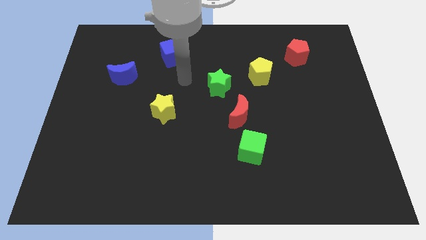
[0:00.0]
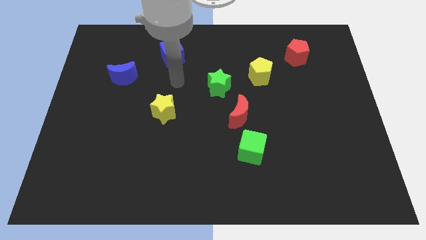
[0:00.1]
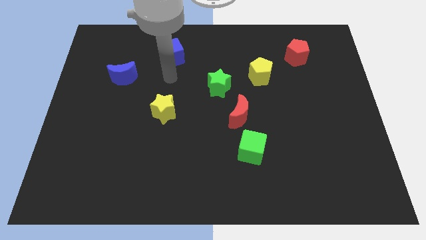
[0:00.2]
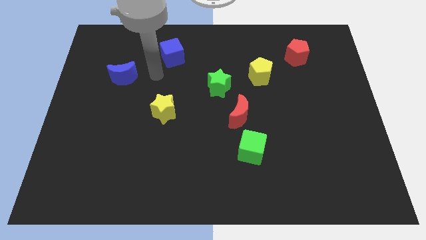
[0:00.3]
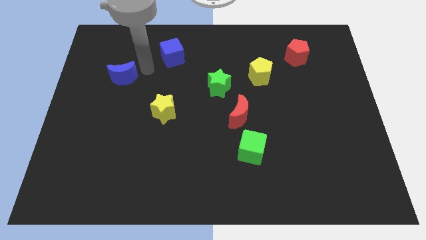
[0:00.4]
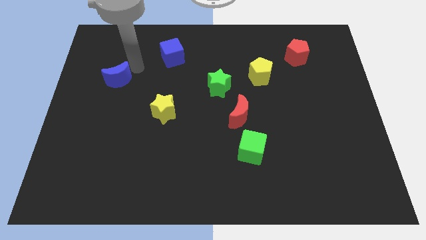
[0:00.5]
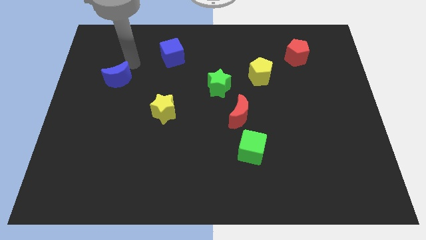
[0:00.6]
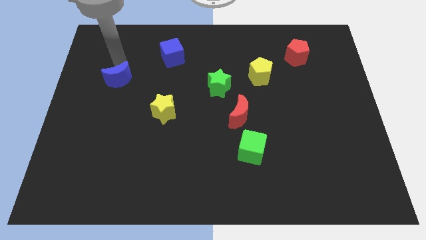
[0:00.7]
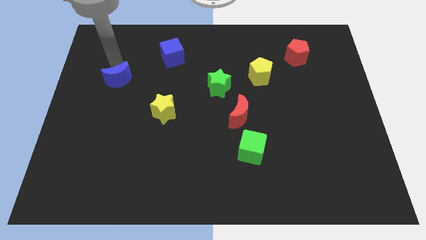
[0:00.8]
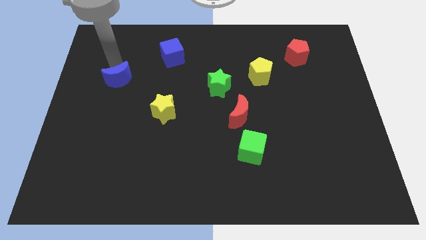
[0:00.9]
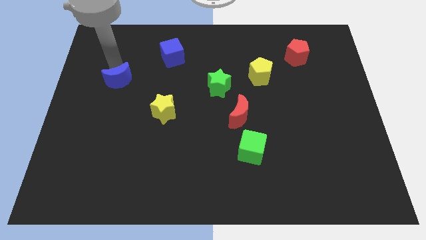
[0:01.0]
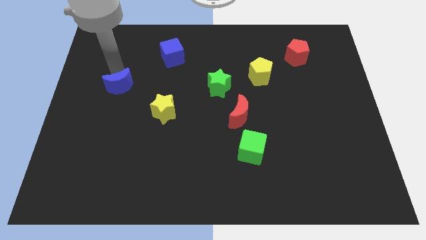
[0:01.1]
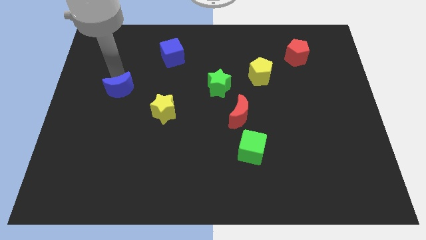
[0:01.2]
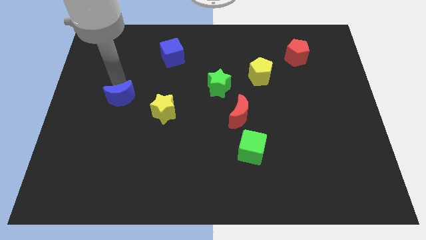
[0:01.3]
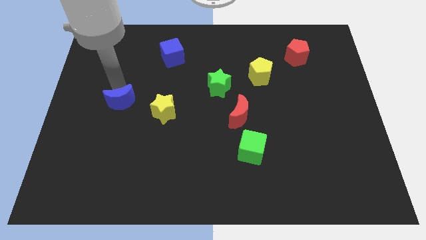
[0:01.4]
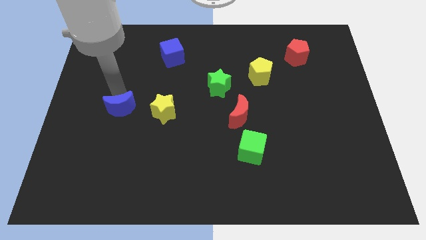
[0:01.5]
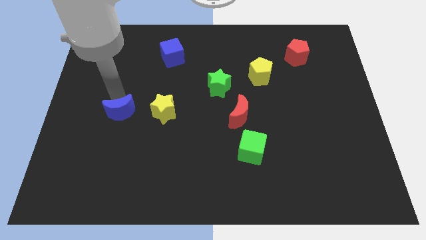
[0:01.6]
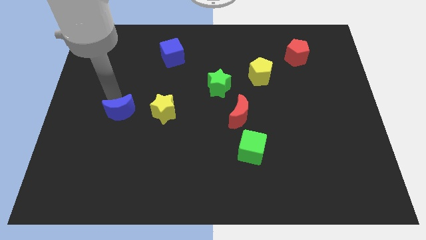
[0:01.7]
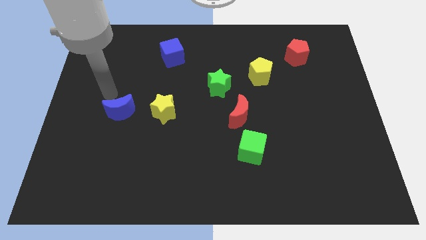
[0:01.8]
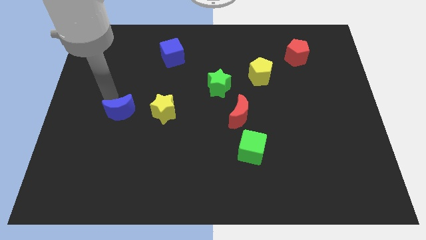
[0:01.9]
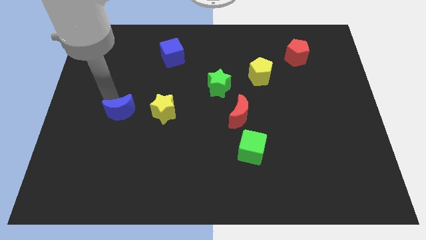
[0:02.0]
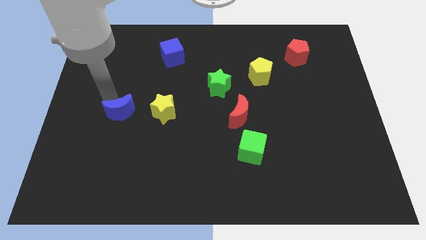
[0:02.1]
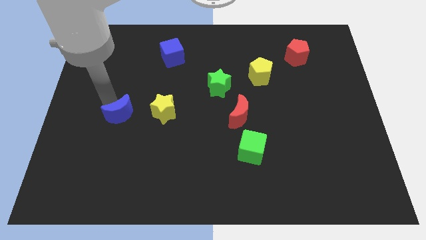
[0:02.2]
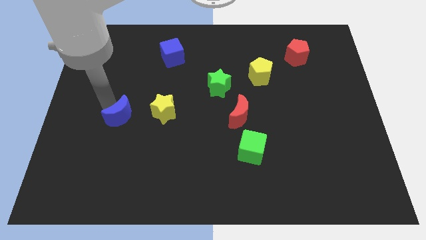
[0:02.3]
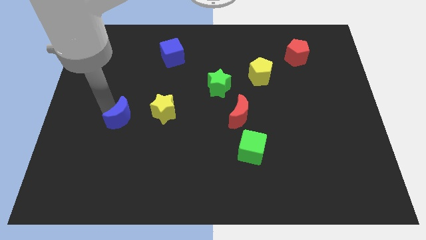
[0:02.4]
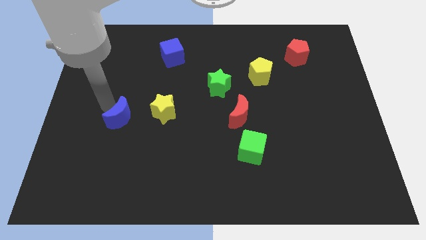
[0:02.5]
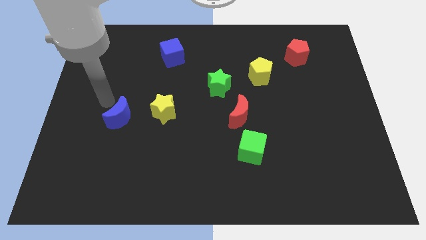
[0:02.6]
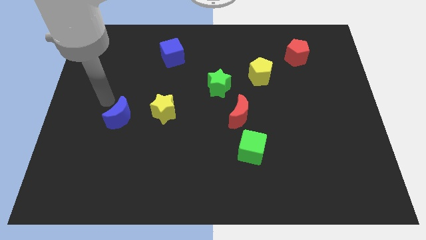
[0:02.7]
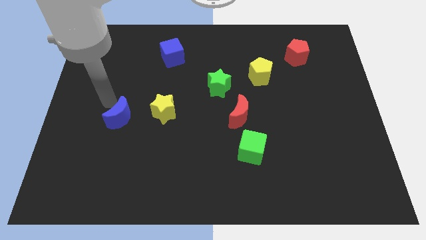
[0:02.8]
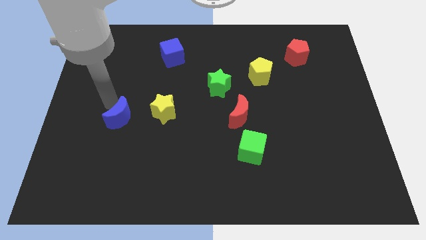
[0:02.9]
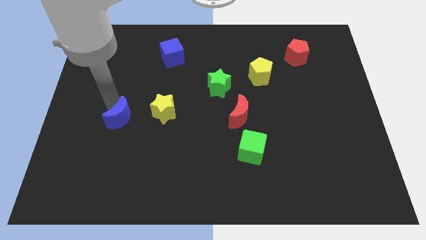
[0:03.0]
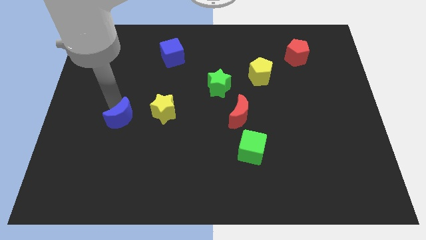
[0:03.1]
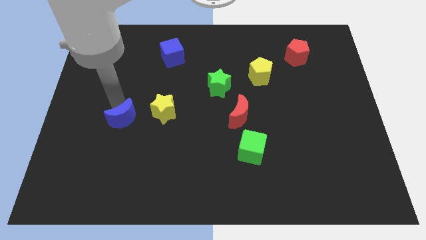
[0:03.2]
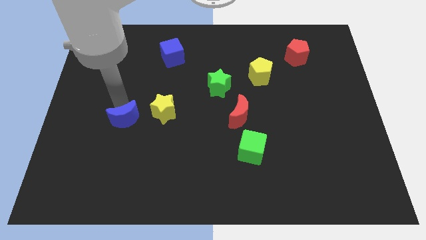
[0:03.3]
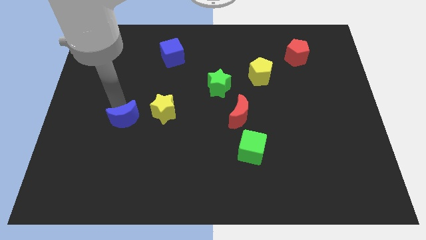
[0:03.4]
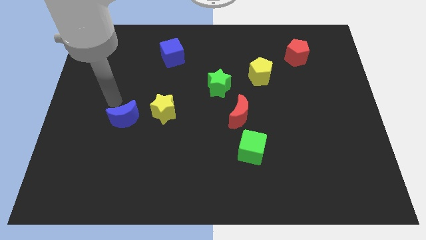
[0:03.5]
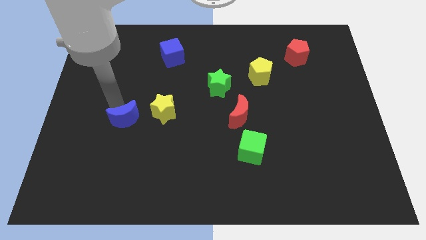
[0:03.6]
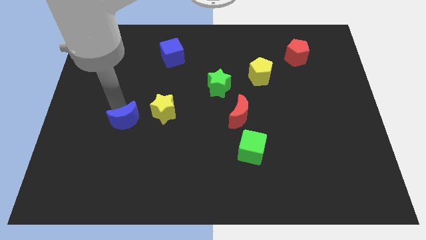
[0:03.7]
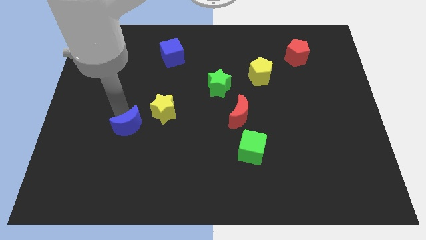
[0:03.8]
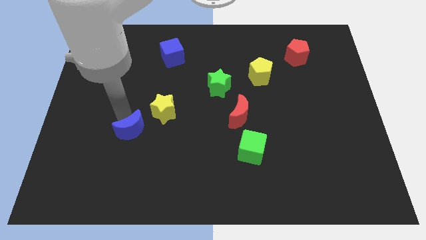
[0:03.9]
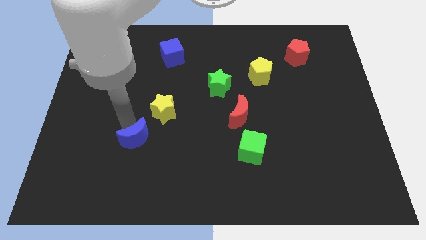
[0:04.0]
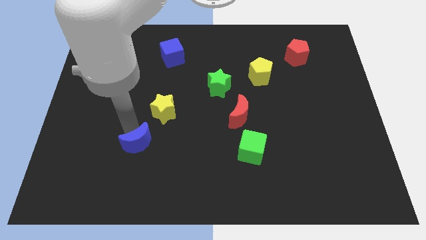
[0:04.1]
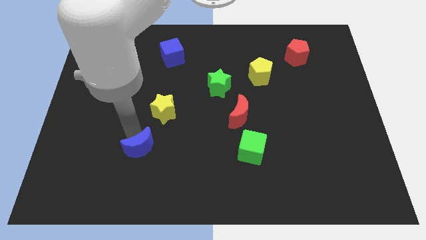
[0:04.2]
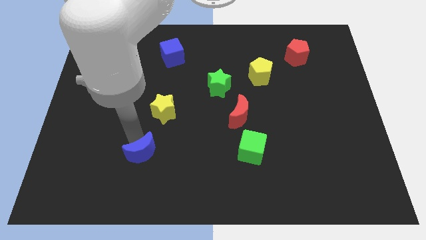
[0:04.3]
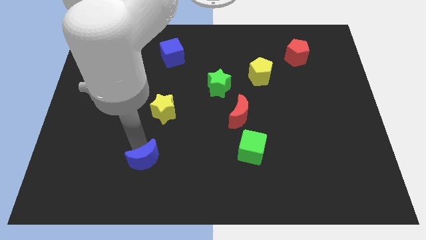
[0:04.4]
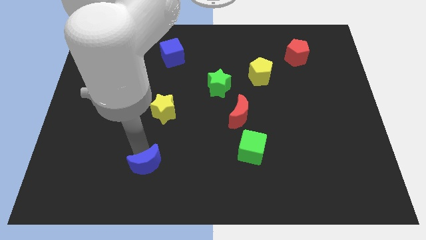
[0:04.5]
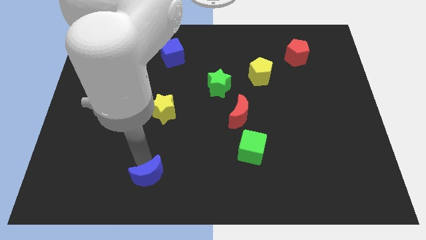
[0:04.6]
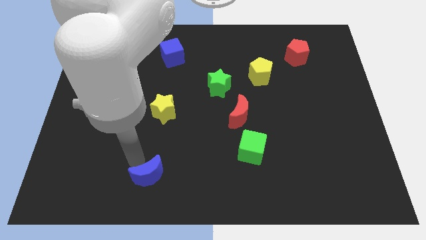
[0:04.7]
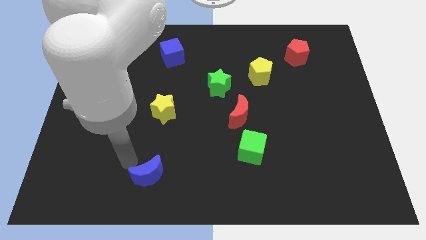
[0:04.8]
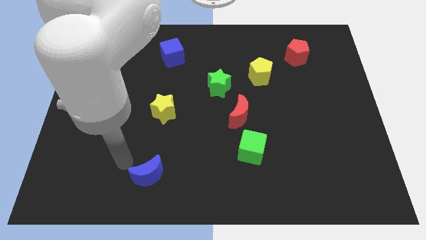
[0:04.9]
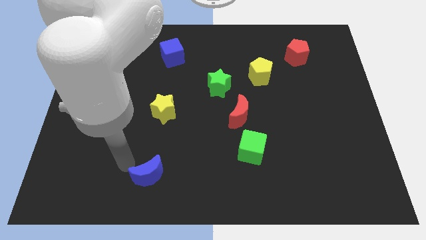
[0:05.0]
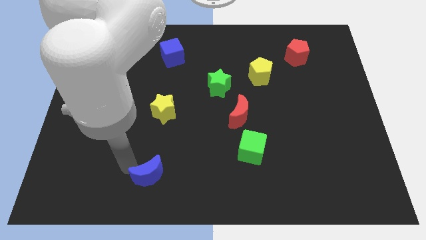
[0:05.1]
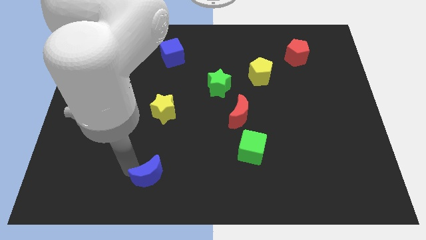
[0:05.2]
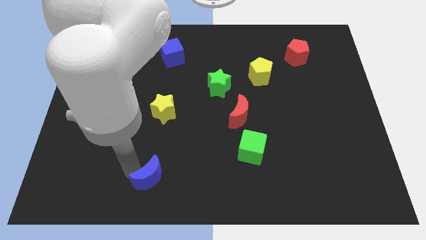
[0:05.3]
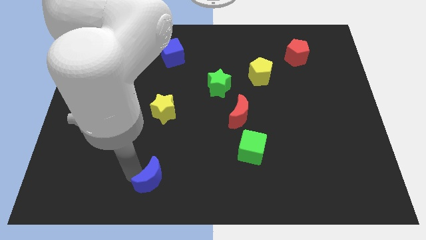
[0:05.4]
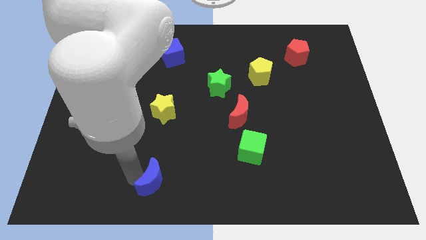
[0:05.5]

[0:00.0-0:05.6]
slide the blue moon to the bottom
